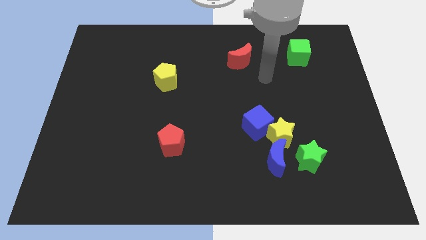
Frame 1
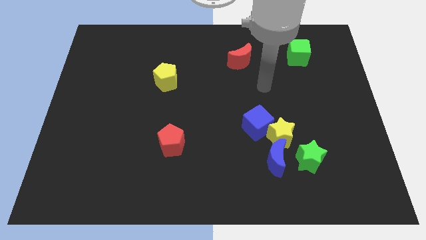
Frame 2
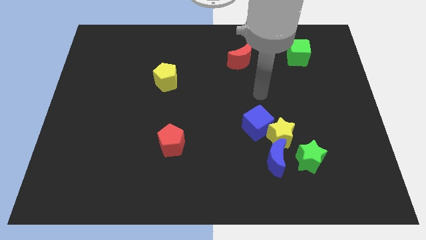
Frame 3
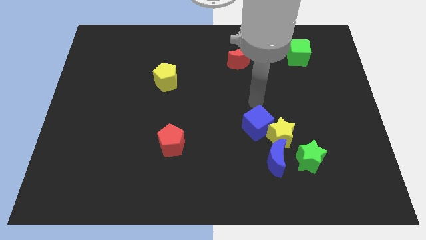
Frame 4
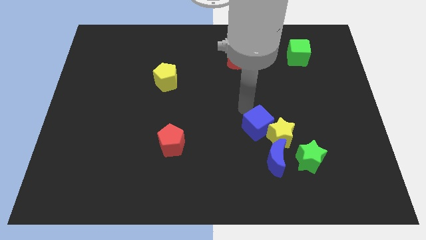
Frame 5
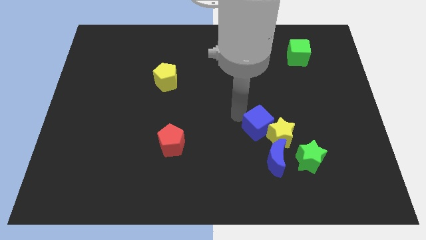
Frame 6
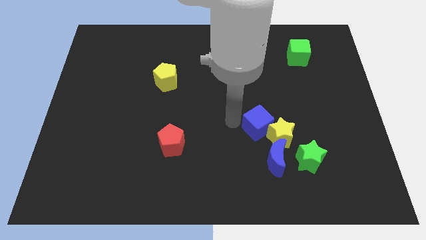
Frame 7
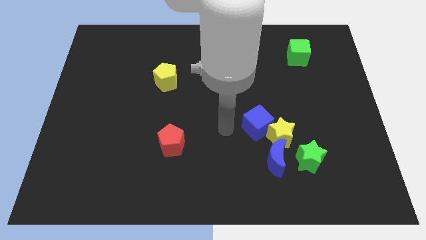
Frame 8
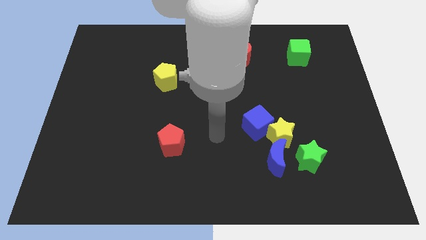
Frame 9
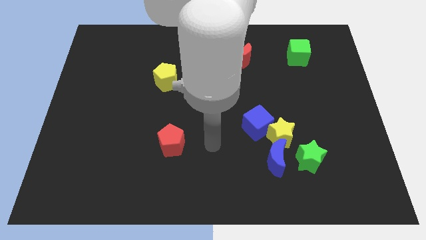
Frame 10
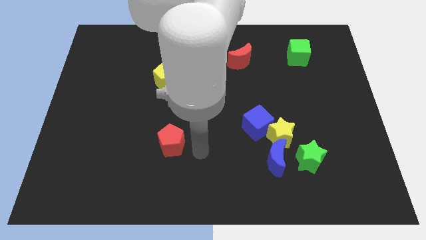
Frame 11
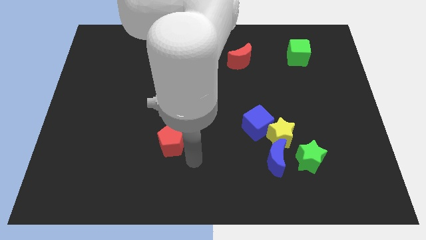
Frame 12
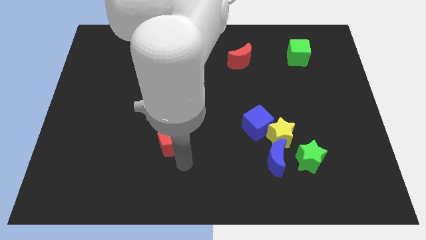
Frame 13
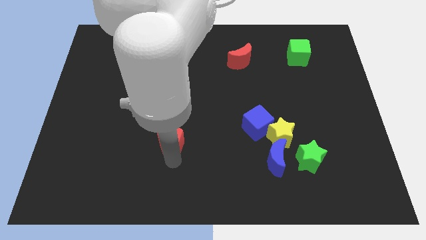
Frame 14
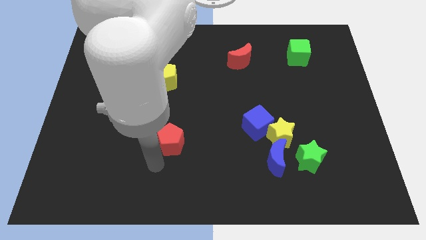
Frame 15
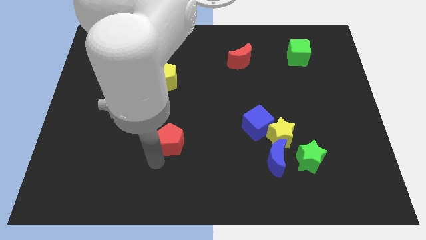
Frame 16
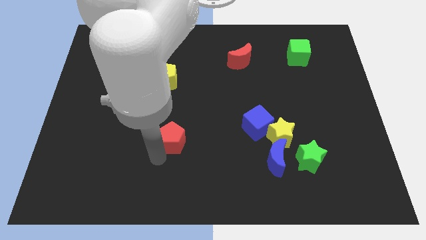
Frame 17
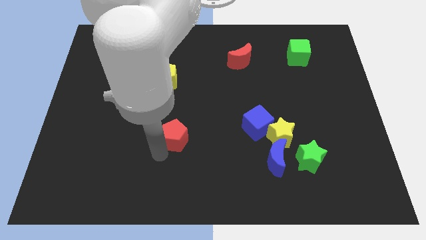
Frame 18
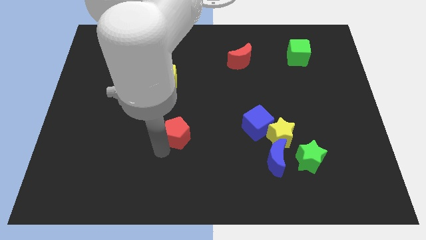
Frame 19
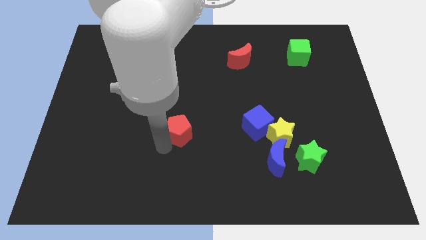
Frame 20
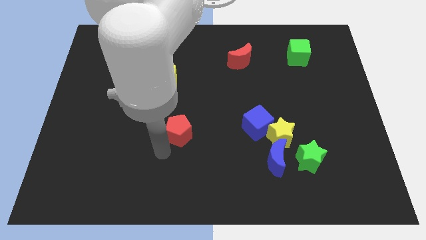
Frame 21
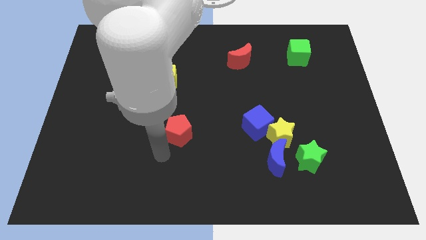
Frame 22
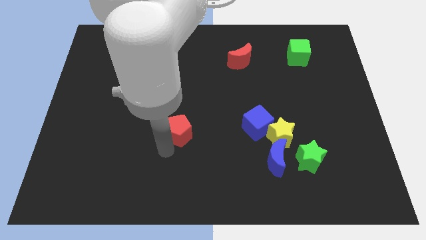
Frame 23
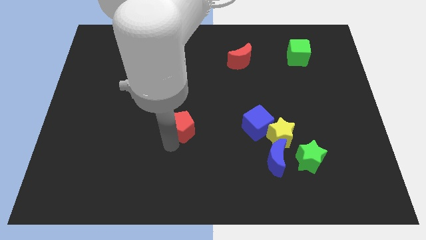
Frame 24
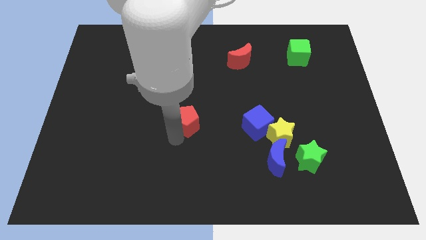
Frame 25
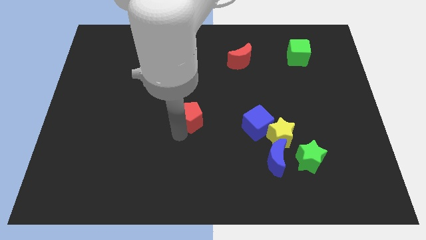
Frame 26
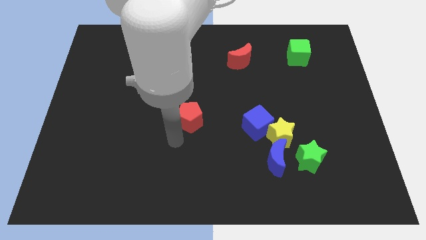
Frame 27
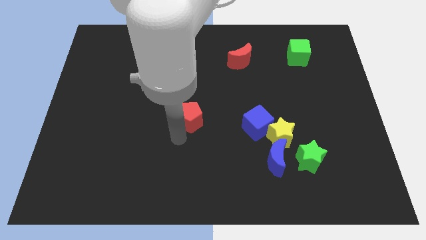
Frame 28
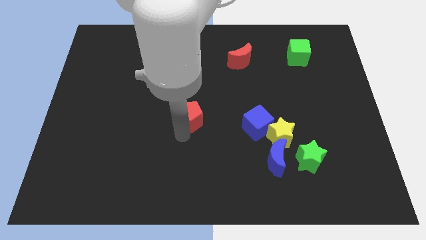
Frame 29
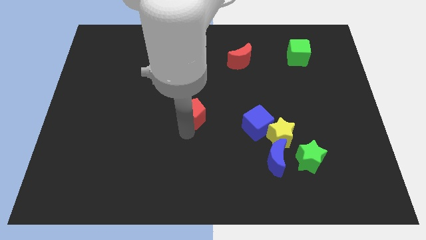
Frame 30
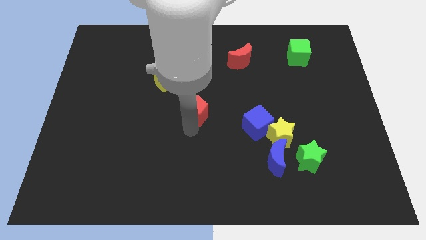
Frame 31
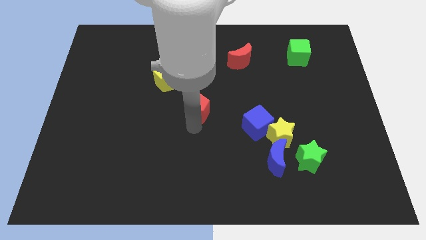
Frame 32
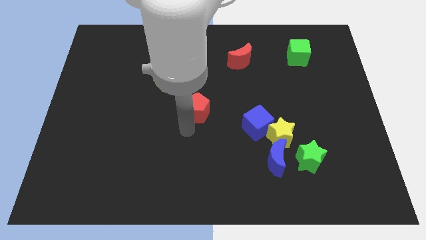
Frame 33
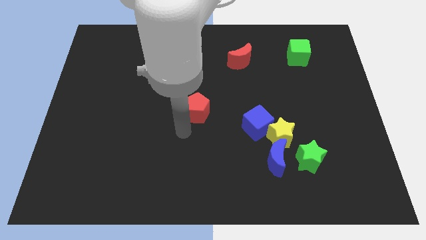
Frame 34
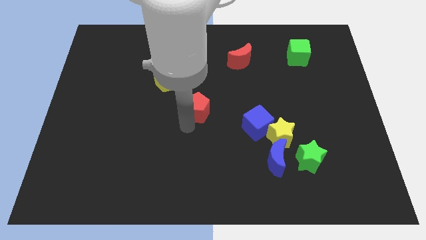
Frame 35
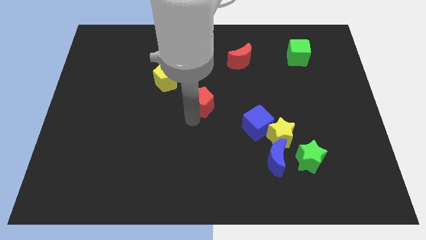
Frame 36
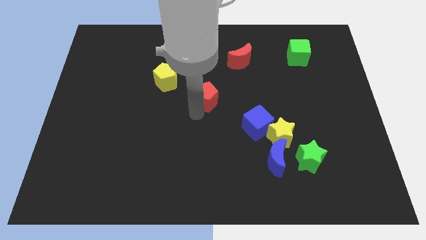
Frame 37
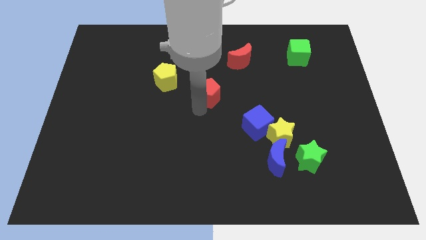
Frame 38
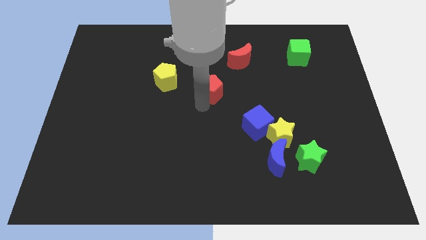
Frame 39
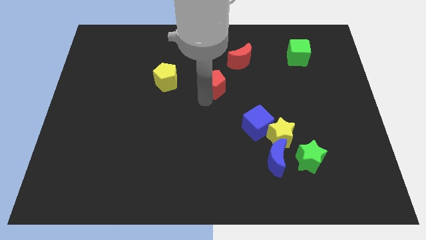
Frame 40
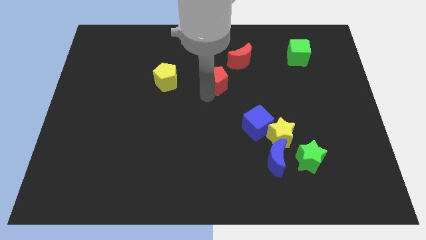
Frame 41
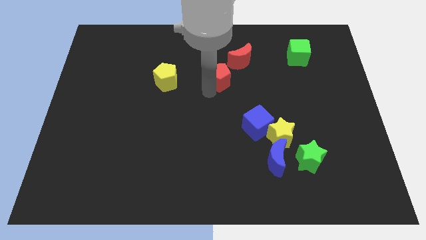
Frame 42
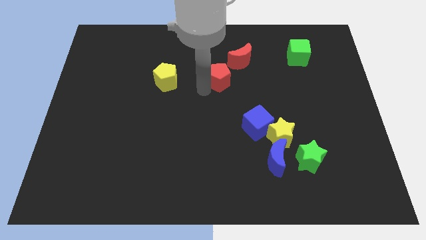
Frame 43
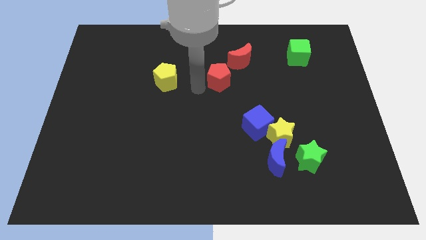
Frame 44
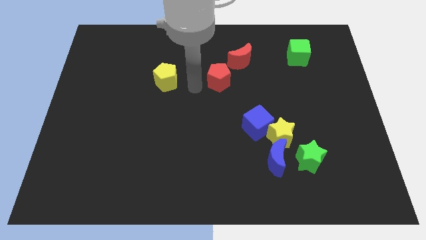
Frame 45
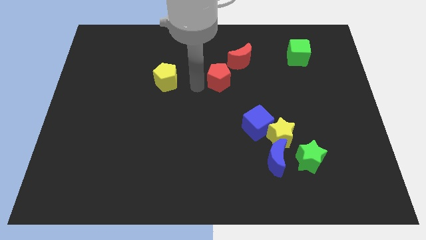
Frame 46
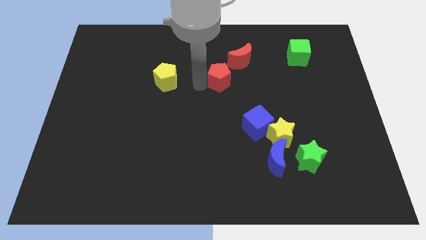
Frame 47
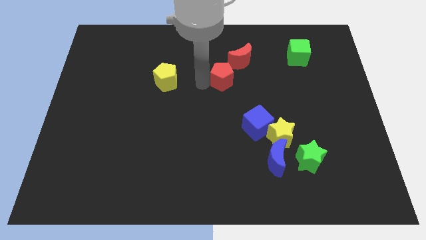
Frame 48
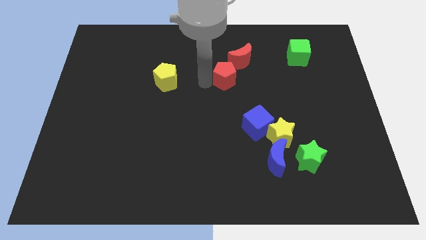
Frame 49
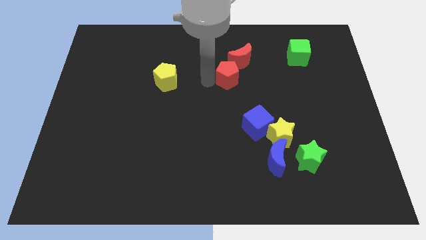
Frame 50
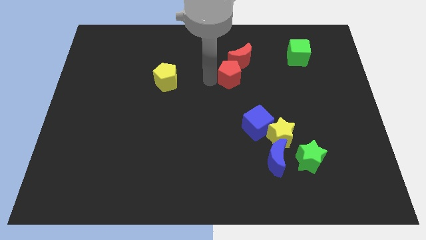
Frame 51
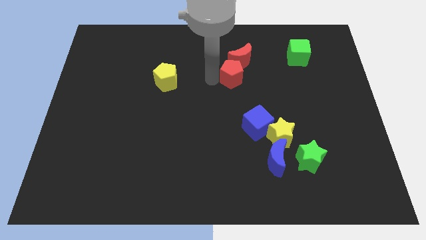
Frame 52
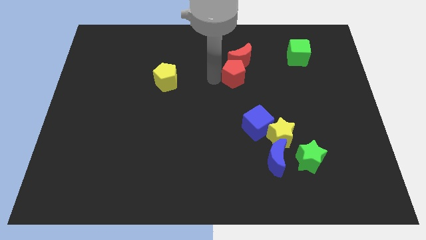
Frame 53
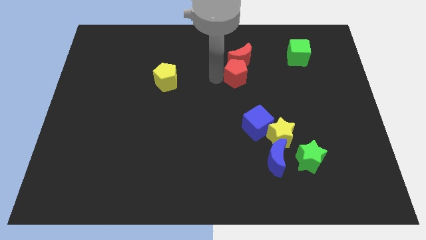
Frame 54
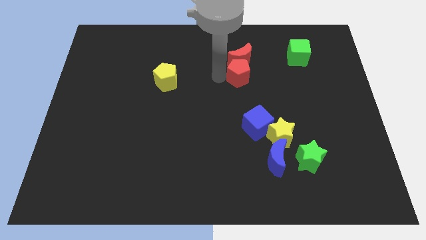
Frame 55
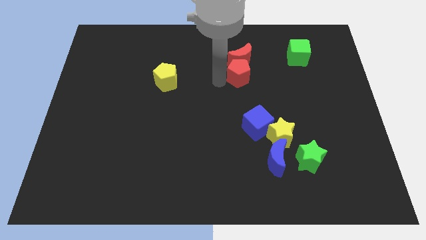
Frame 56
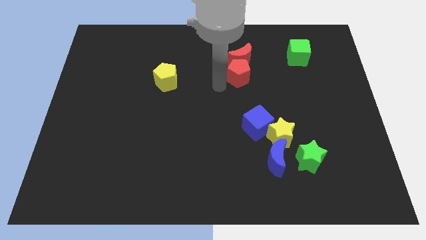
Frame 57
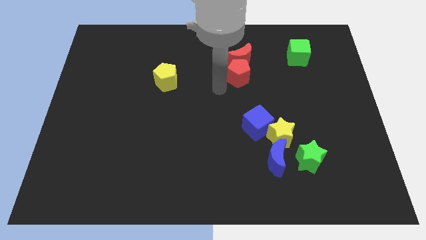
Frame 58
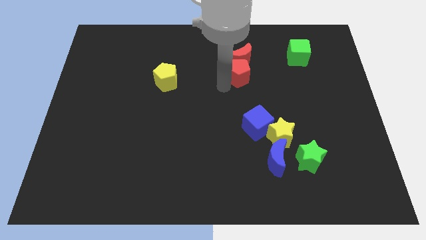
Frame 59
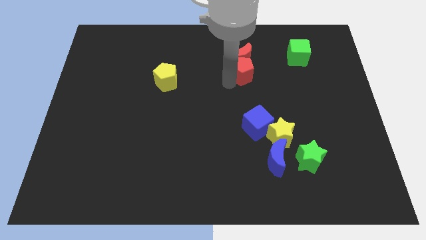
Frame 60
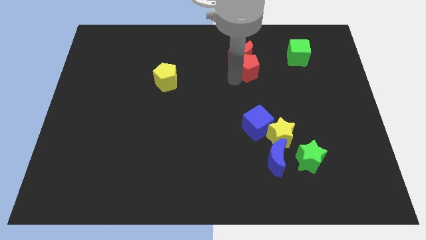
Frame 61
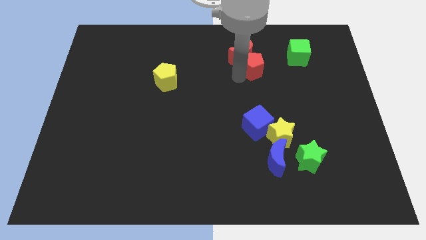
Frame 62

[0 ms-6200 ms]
put the red pentagon to the left of the green cube
